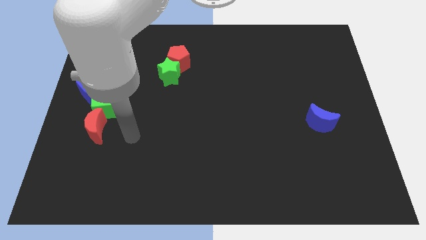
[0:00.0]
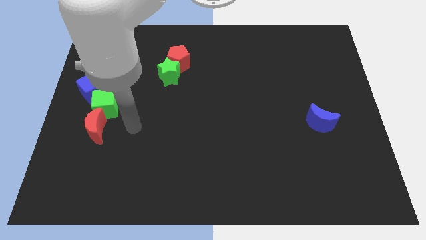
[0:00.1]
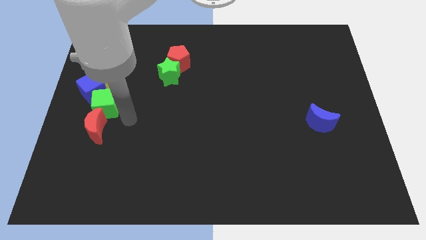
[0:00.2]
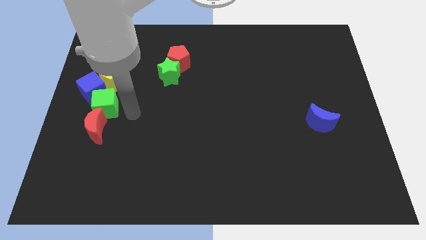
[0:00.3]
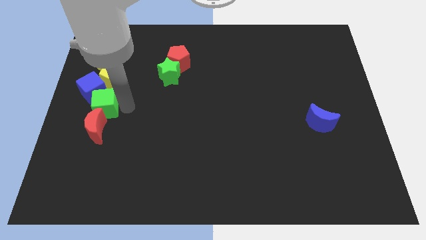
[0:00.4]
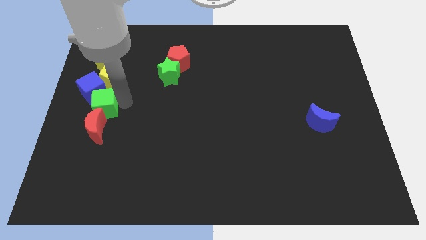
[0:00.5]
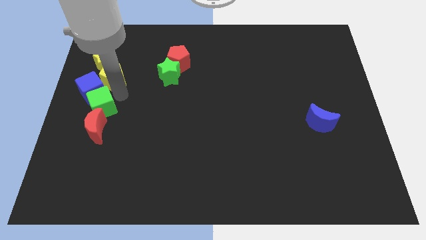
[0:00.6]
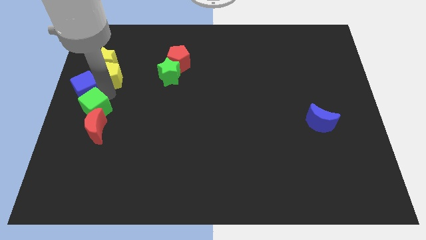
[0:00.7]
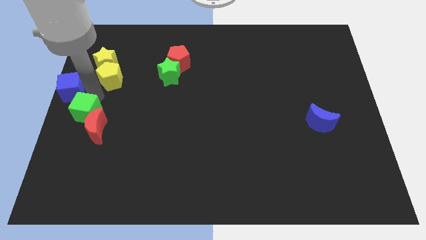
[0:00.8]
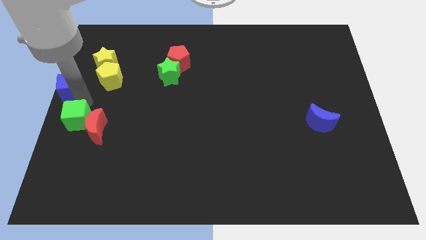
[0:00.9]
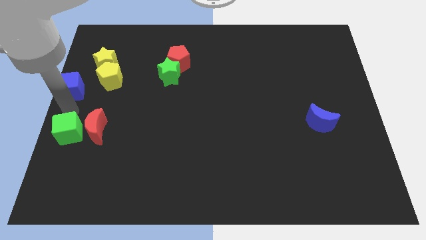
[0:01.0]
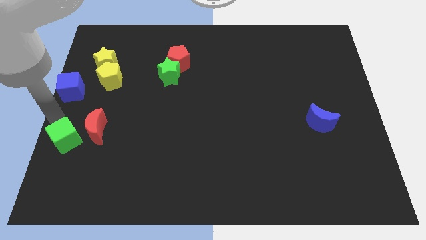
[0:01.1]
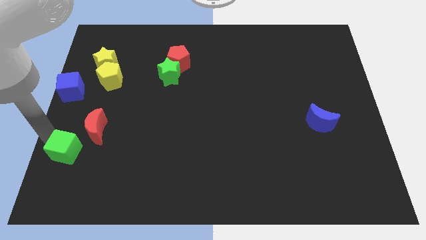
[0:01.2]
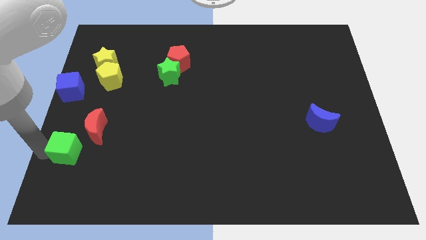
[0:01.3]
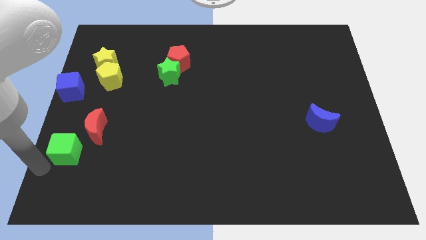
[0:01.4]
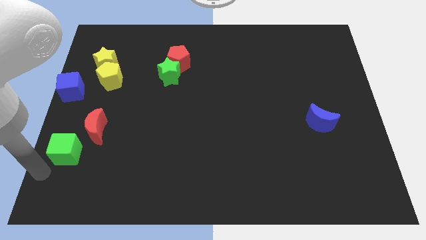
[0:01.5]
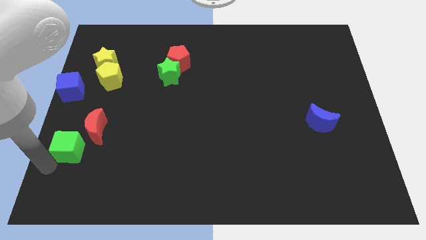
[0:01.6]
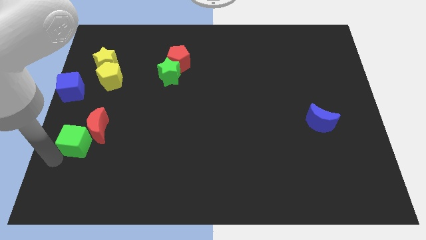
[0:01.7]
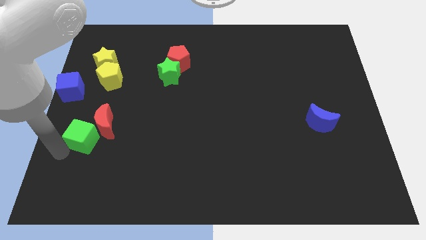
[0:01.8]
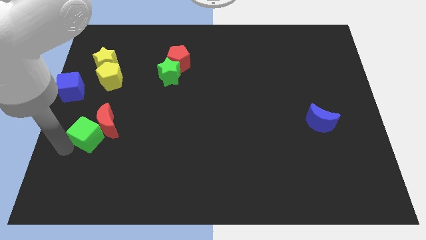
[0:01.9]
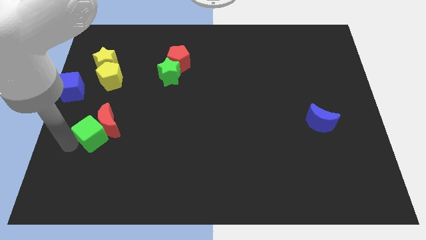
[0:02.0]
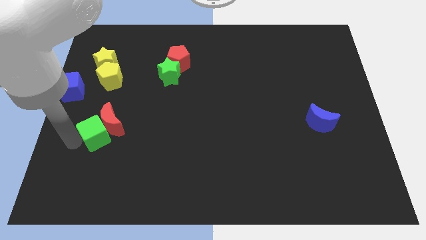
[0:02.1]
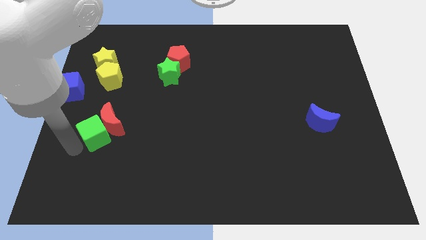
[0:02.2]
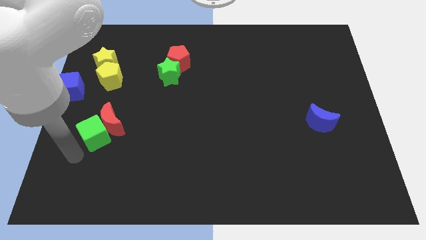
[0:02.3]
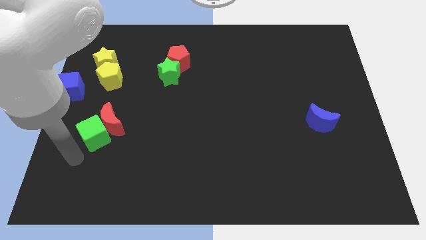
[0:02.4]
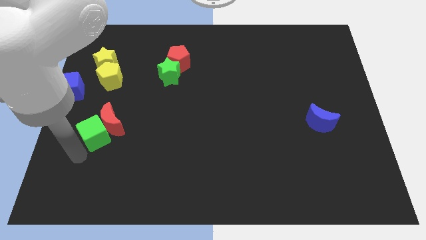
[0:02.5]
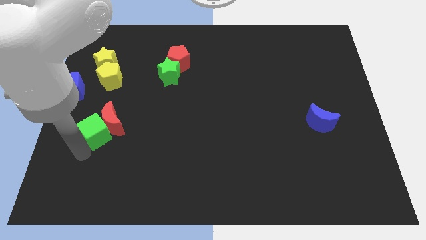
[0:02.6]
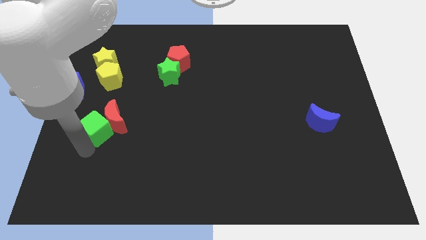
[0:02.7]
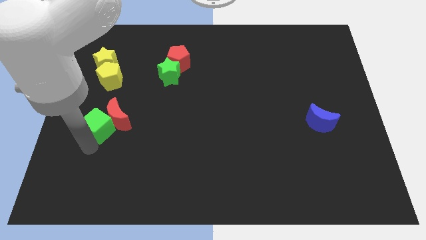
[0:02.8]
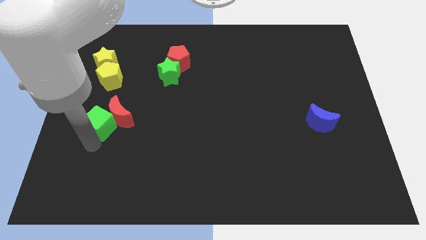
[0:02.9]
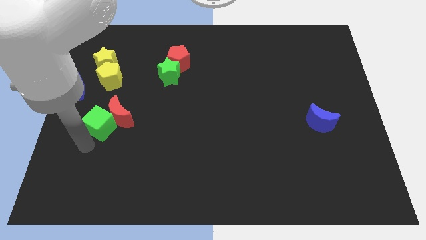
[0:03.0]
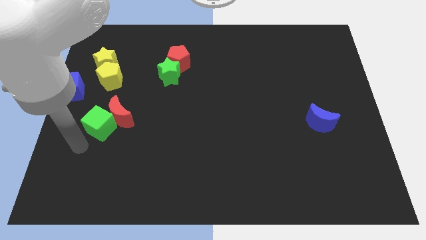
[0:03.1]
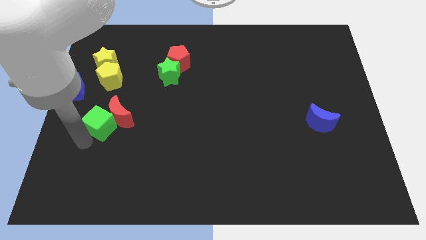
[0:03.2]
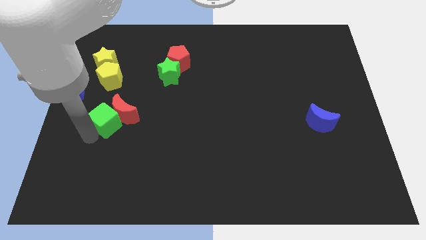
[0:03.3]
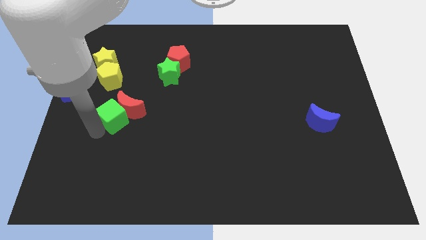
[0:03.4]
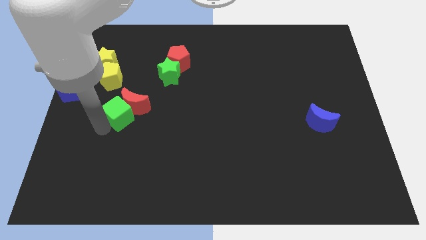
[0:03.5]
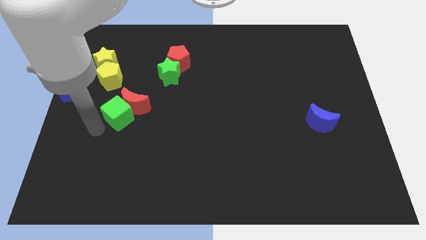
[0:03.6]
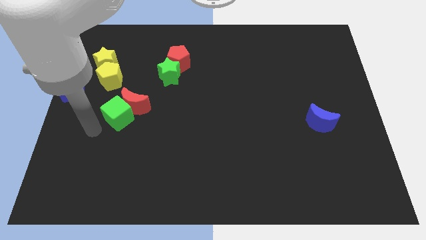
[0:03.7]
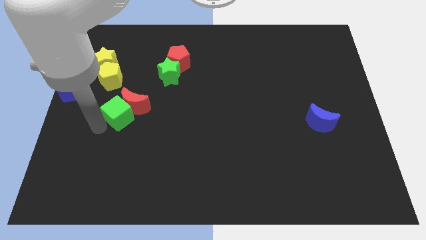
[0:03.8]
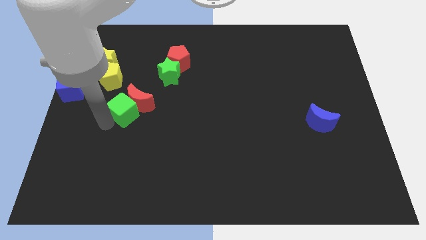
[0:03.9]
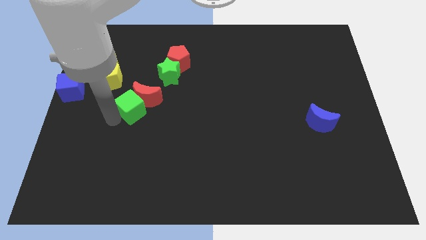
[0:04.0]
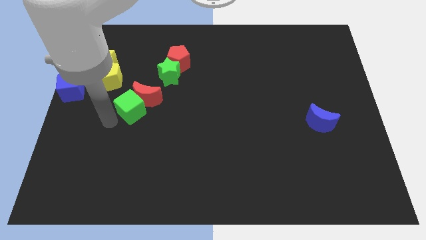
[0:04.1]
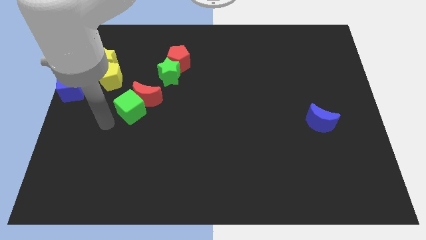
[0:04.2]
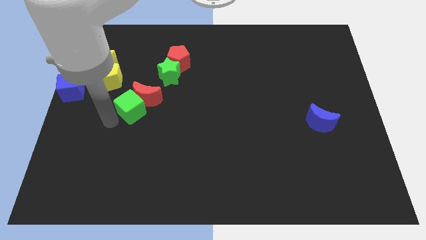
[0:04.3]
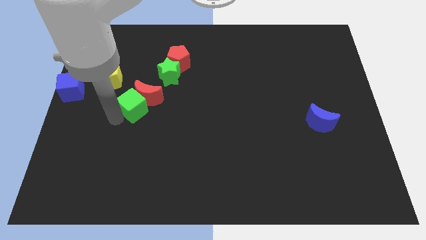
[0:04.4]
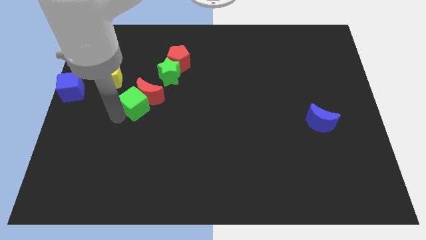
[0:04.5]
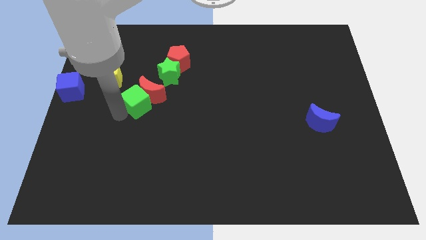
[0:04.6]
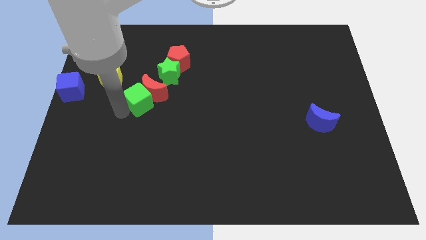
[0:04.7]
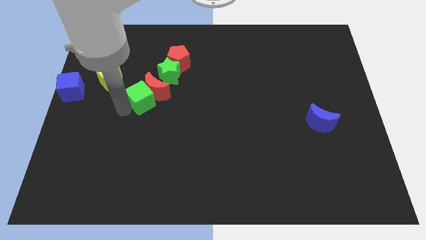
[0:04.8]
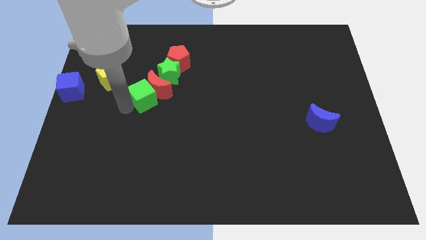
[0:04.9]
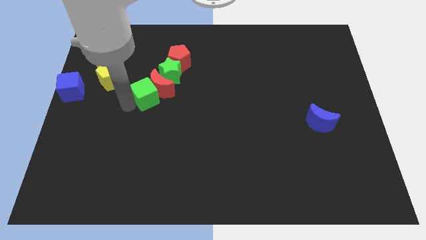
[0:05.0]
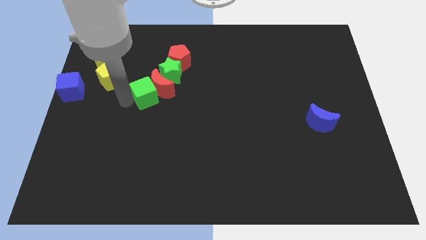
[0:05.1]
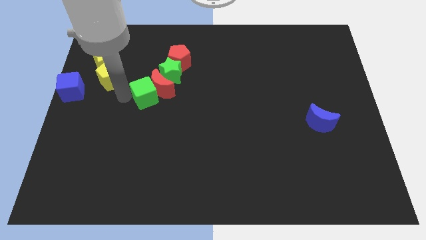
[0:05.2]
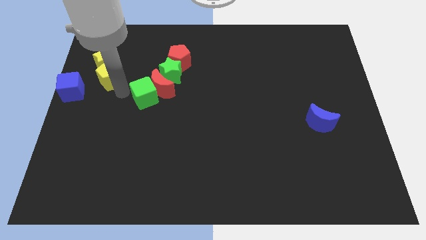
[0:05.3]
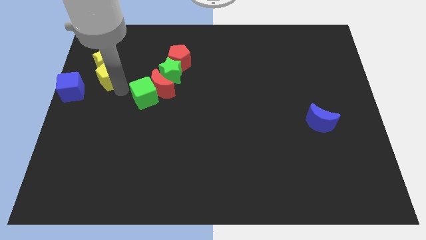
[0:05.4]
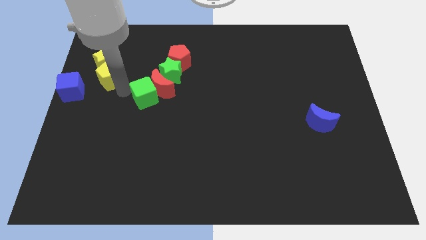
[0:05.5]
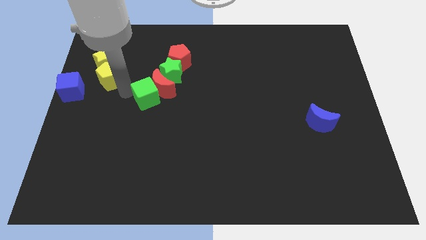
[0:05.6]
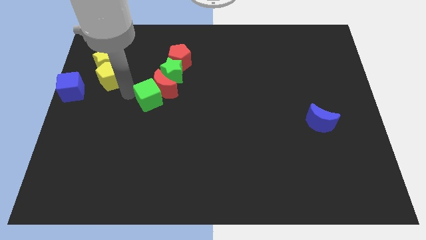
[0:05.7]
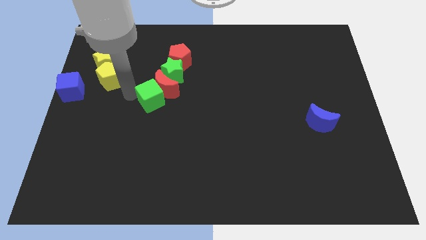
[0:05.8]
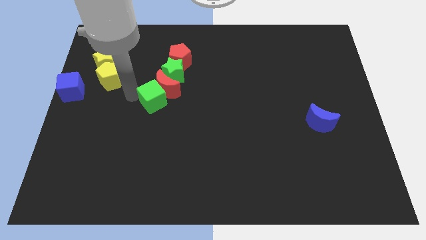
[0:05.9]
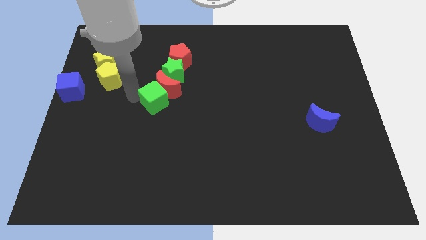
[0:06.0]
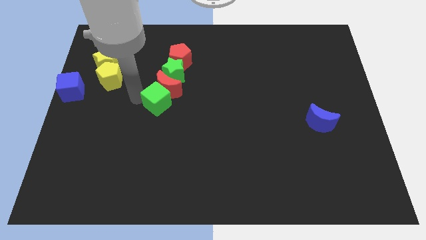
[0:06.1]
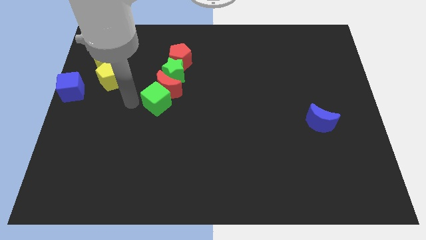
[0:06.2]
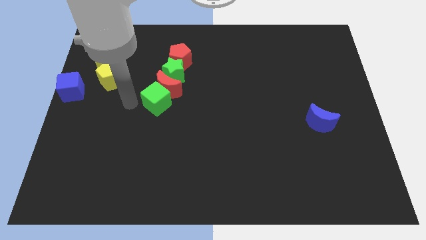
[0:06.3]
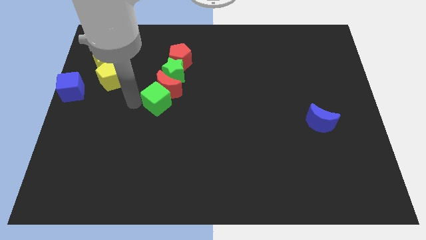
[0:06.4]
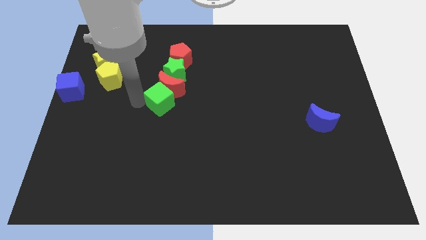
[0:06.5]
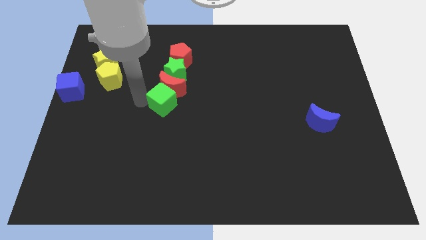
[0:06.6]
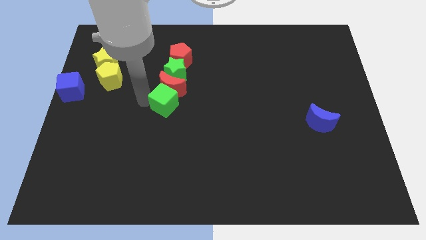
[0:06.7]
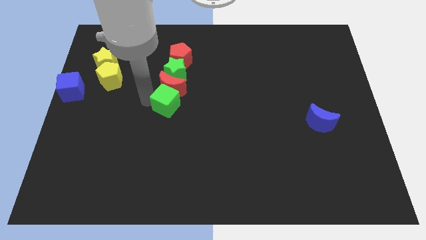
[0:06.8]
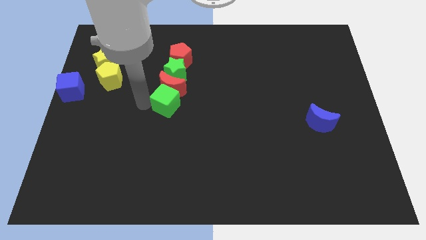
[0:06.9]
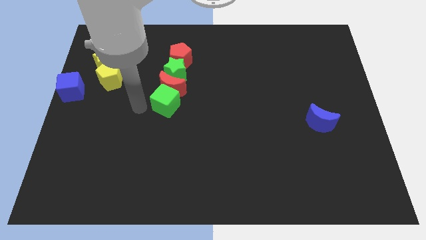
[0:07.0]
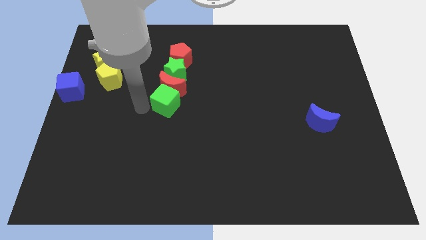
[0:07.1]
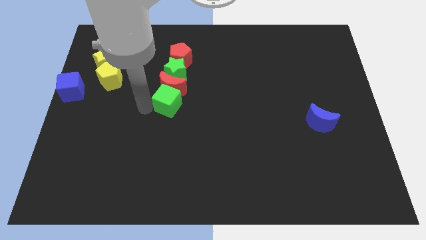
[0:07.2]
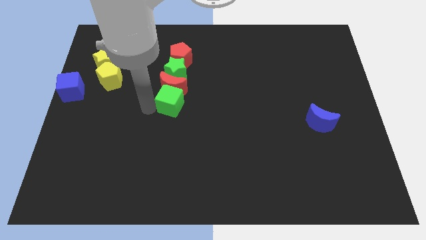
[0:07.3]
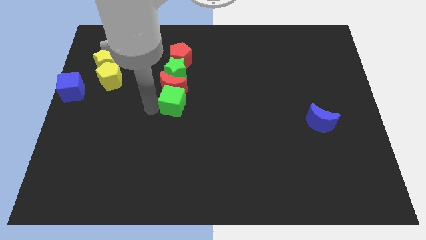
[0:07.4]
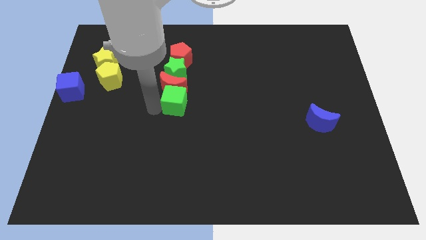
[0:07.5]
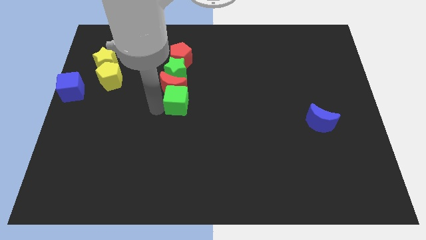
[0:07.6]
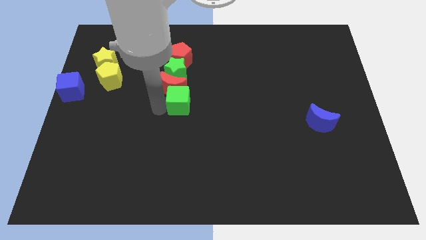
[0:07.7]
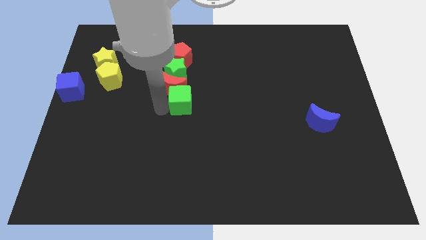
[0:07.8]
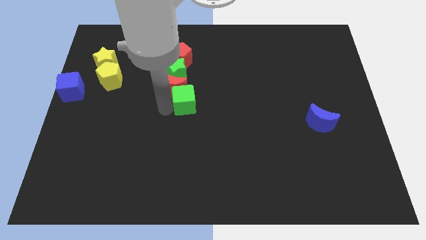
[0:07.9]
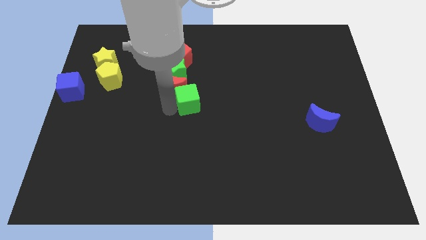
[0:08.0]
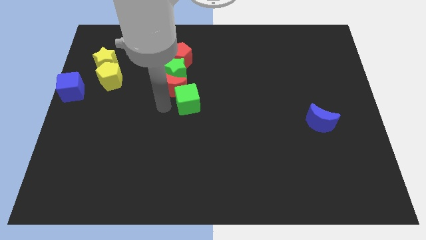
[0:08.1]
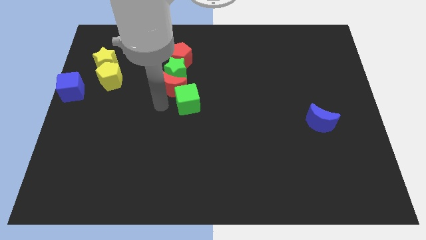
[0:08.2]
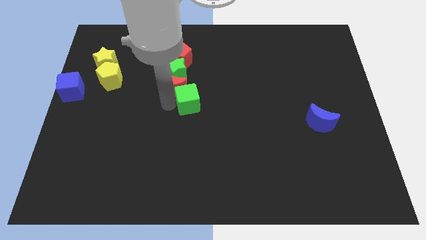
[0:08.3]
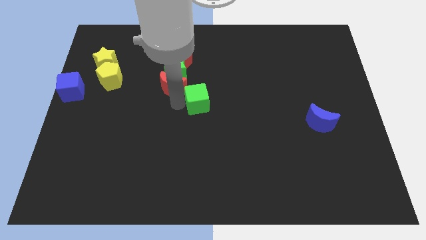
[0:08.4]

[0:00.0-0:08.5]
push the green cube right
